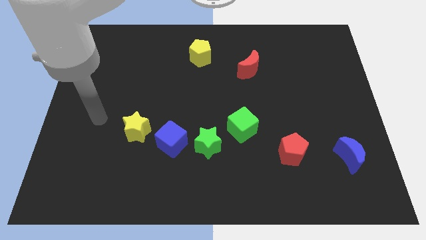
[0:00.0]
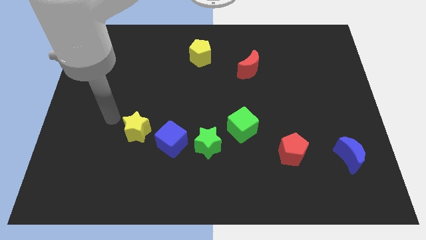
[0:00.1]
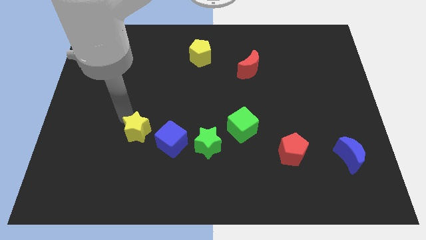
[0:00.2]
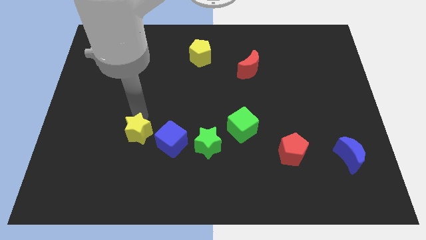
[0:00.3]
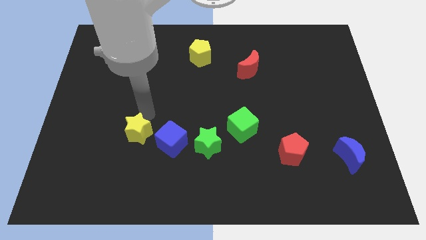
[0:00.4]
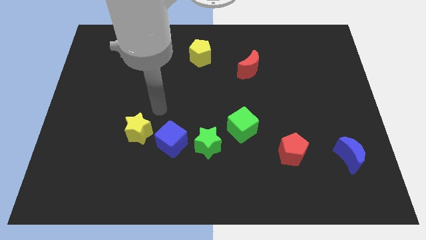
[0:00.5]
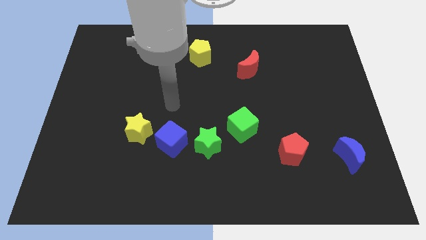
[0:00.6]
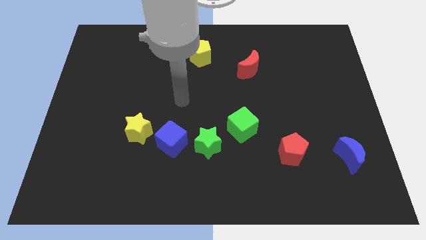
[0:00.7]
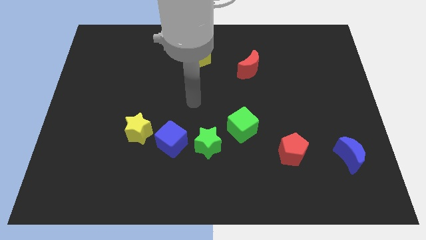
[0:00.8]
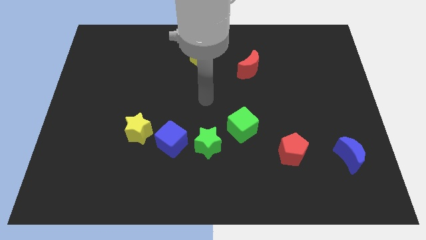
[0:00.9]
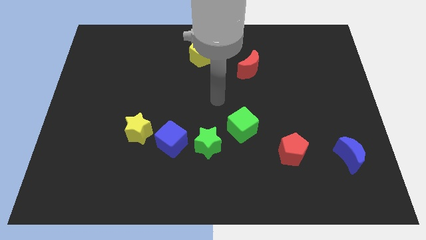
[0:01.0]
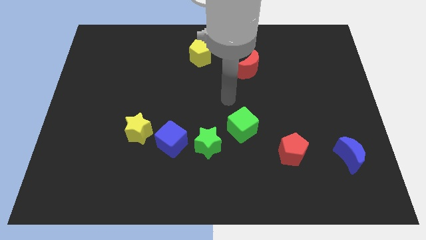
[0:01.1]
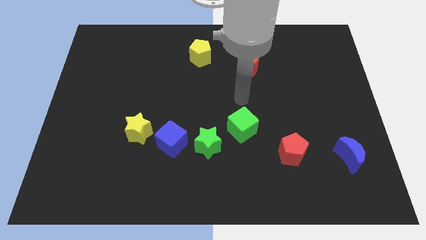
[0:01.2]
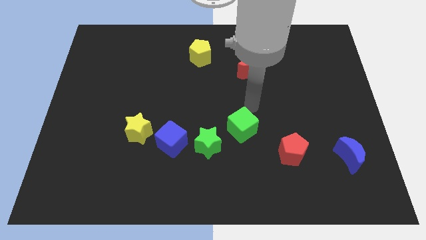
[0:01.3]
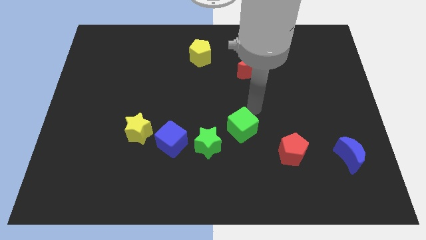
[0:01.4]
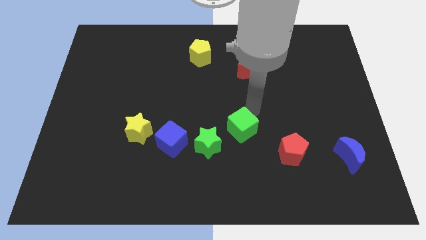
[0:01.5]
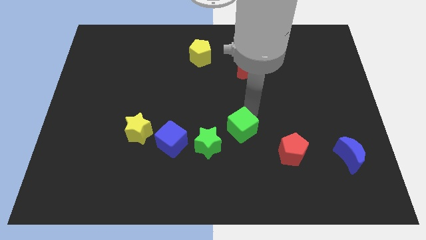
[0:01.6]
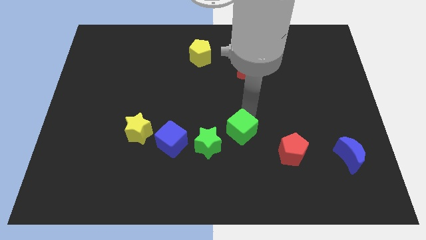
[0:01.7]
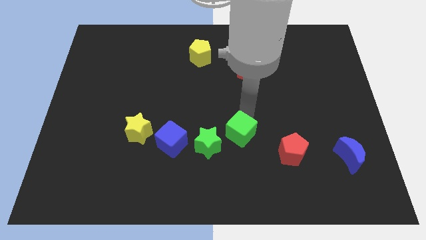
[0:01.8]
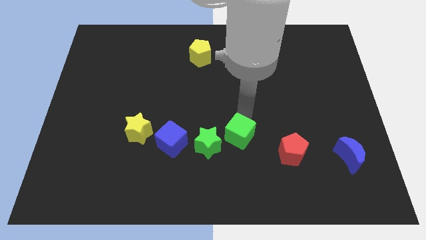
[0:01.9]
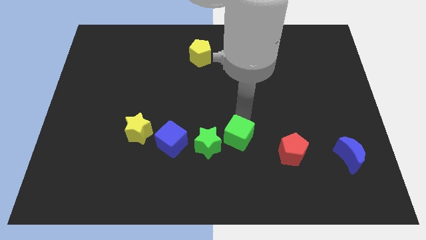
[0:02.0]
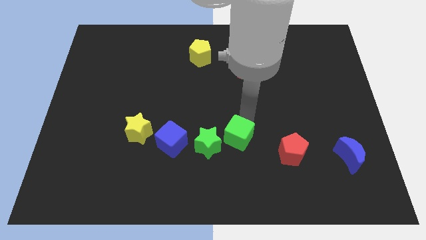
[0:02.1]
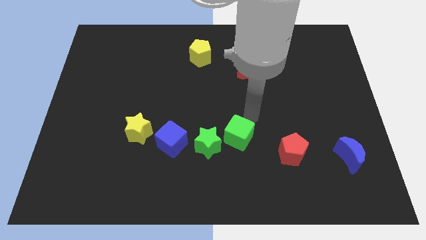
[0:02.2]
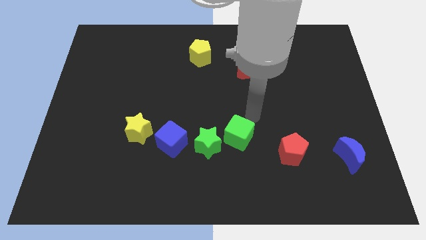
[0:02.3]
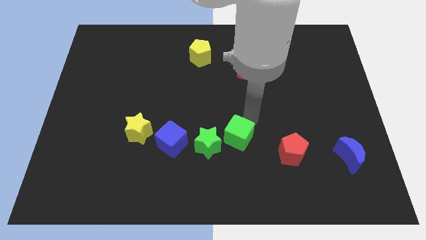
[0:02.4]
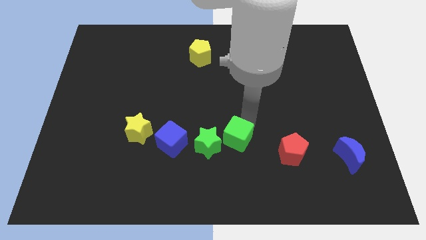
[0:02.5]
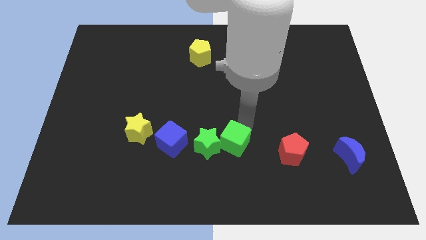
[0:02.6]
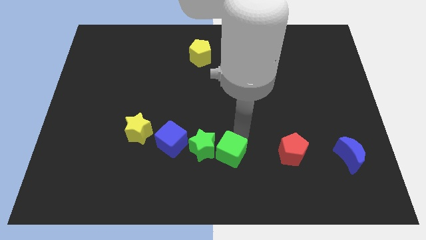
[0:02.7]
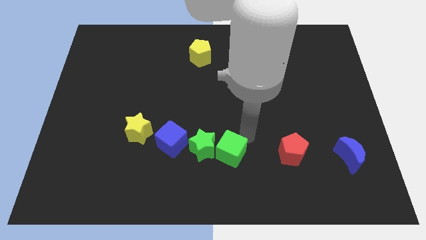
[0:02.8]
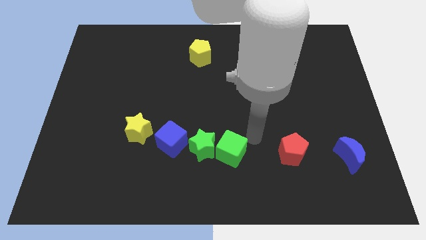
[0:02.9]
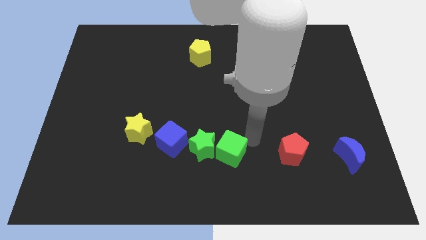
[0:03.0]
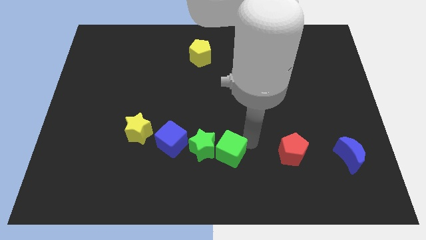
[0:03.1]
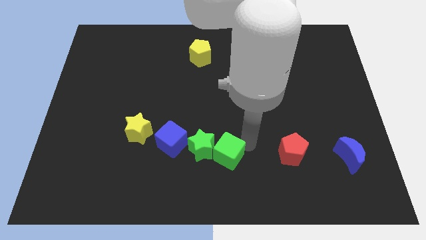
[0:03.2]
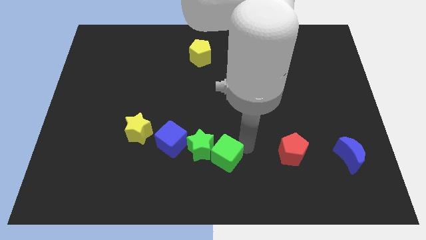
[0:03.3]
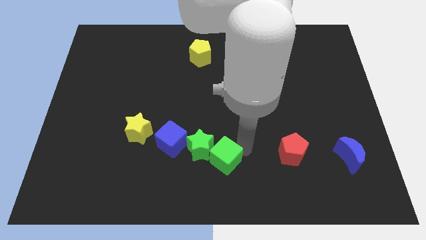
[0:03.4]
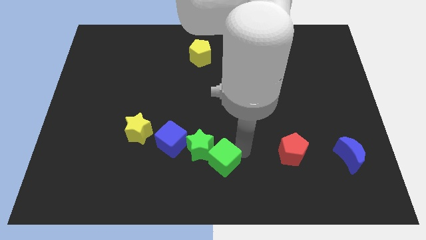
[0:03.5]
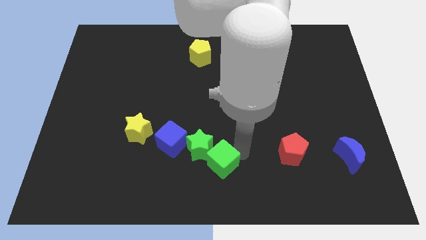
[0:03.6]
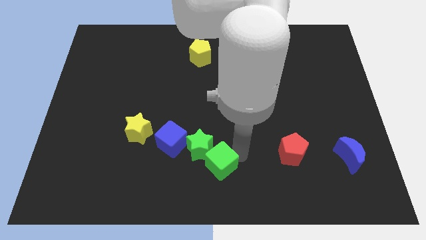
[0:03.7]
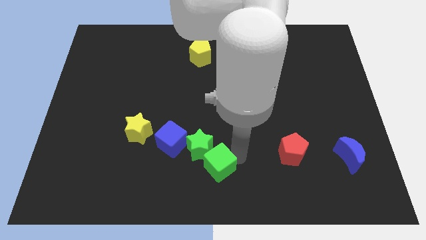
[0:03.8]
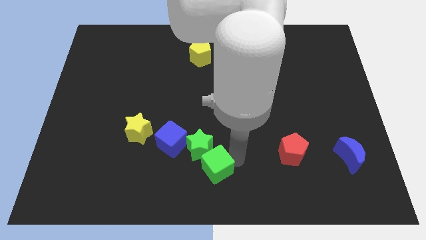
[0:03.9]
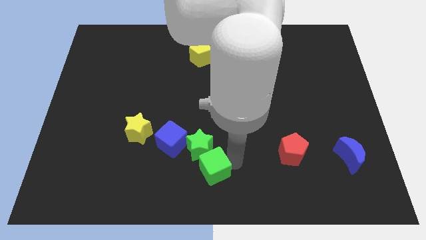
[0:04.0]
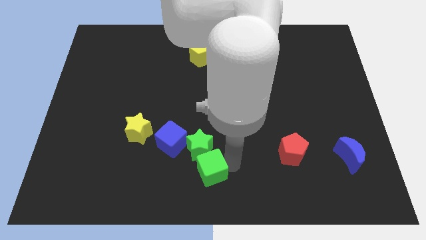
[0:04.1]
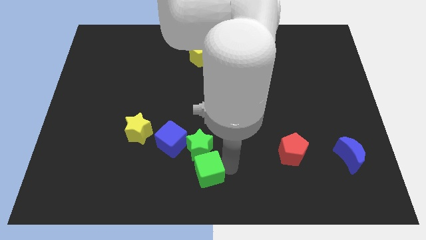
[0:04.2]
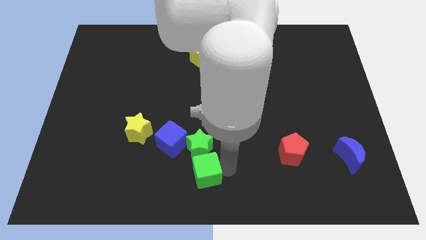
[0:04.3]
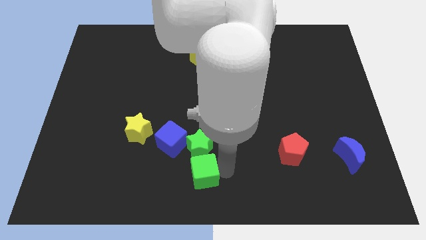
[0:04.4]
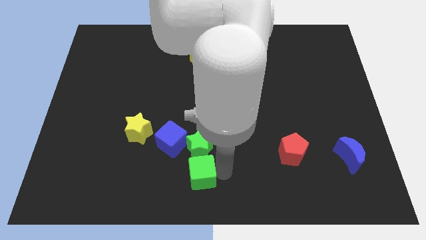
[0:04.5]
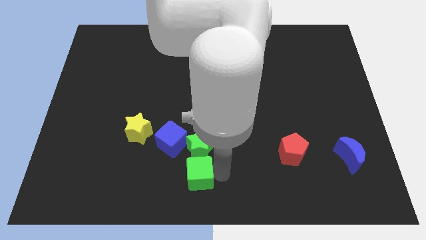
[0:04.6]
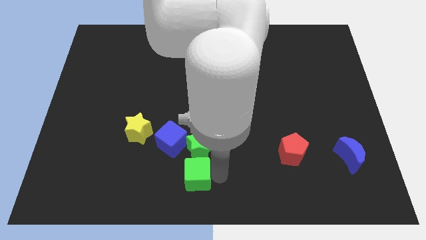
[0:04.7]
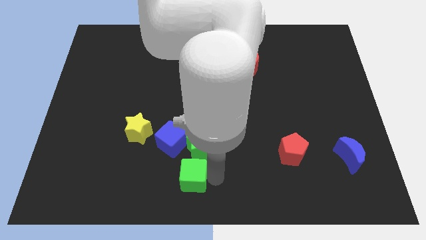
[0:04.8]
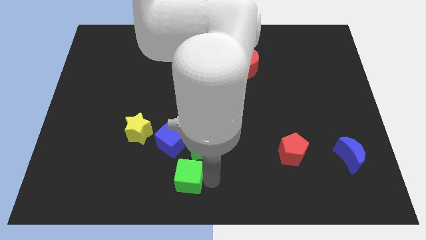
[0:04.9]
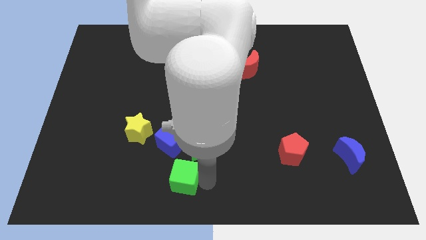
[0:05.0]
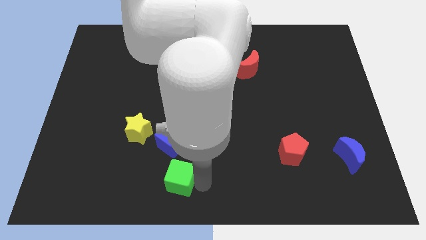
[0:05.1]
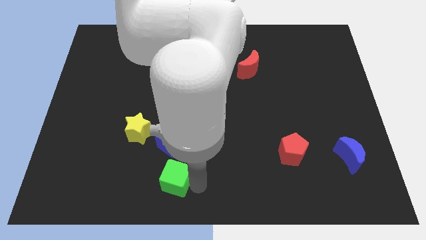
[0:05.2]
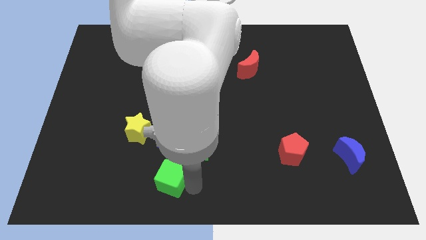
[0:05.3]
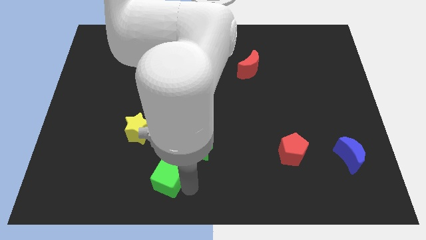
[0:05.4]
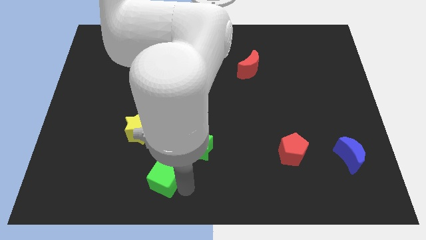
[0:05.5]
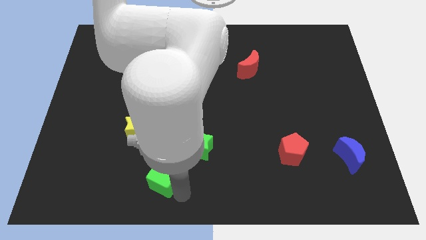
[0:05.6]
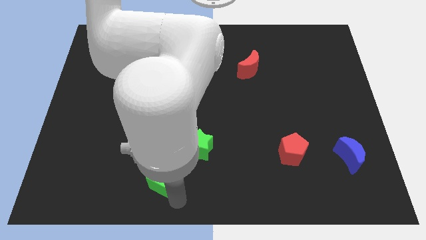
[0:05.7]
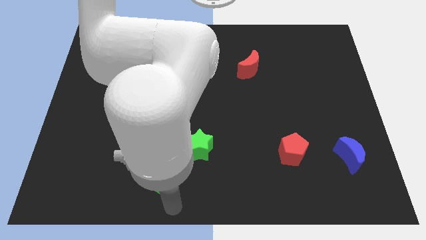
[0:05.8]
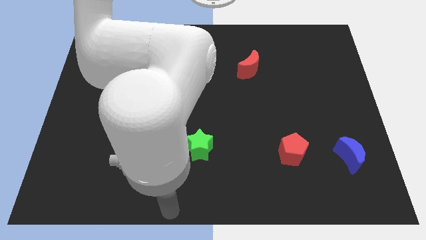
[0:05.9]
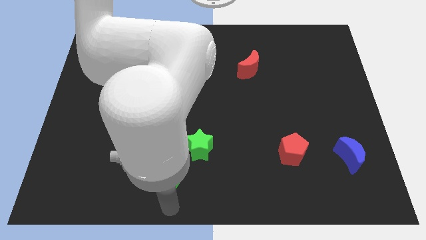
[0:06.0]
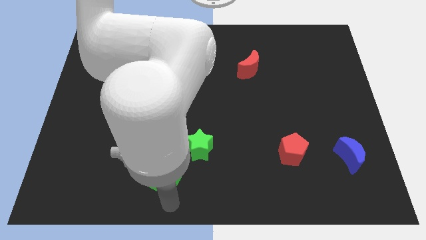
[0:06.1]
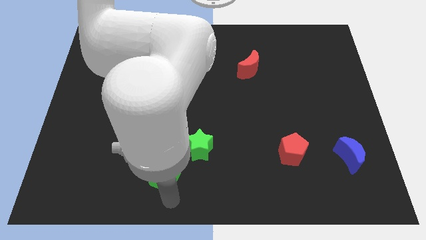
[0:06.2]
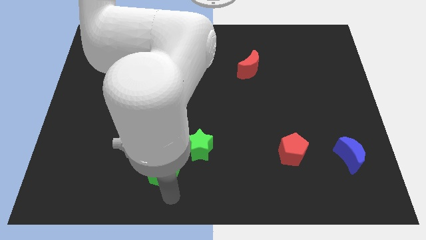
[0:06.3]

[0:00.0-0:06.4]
move the green cube diagonally down and to the right of the yellow star

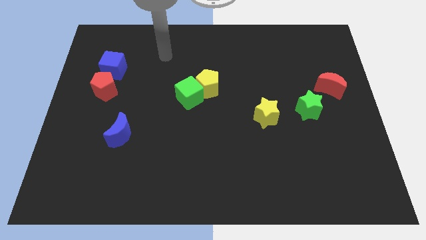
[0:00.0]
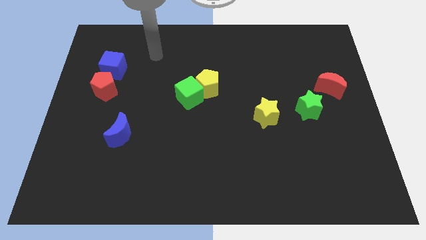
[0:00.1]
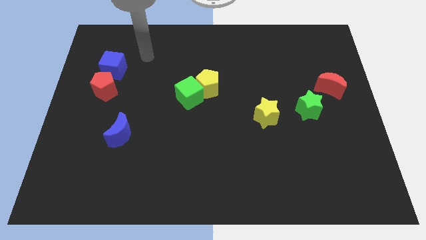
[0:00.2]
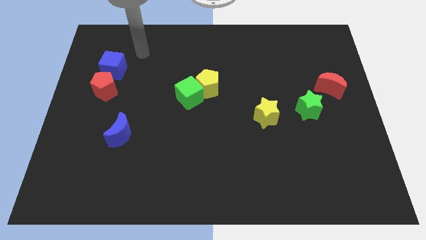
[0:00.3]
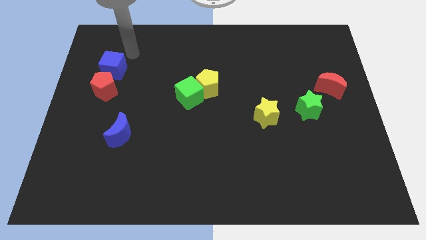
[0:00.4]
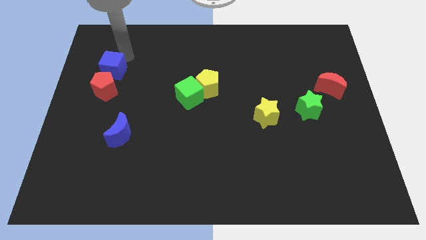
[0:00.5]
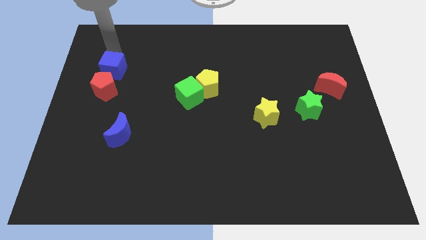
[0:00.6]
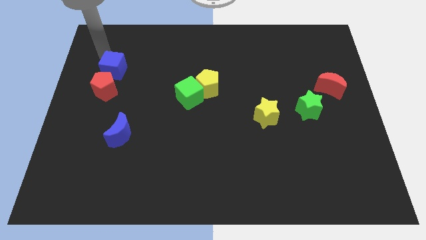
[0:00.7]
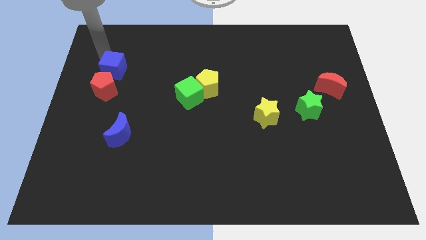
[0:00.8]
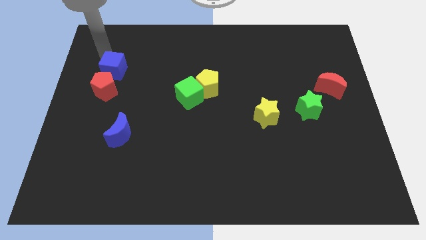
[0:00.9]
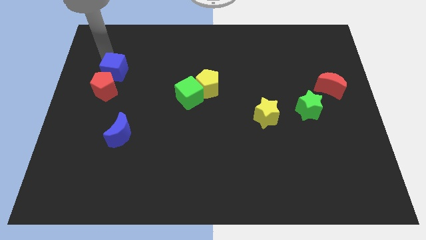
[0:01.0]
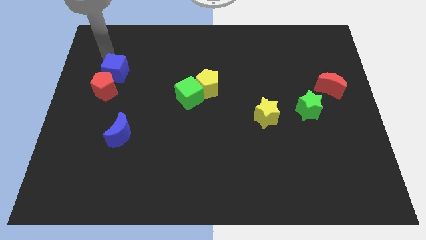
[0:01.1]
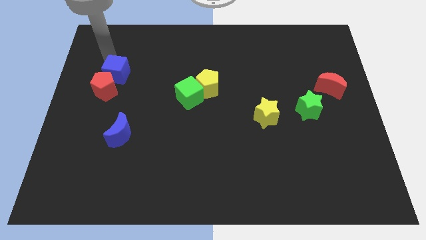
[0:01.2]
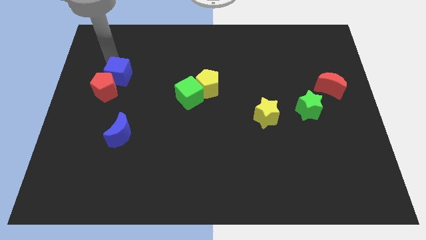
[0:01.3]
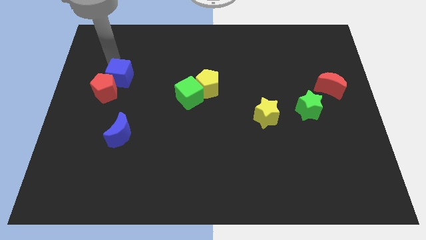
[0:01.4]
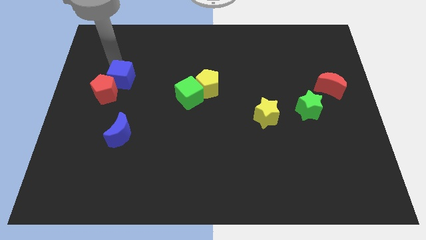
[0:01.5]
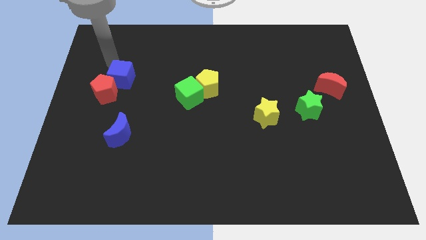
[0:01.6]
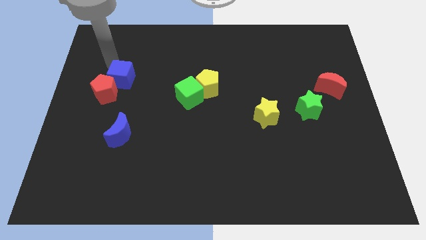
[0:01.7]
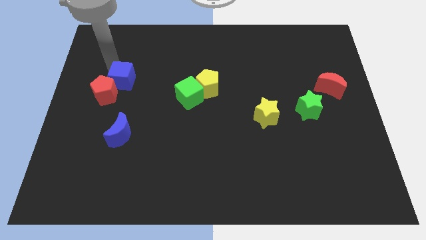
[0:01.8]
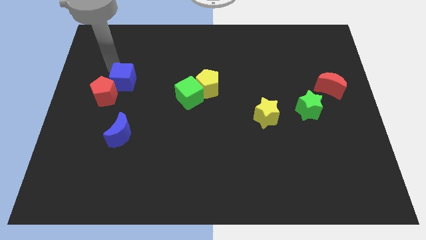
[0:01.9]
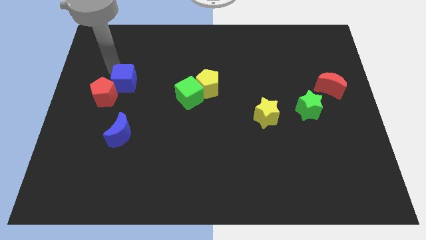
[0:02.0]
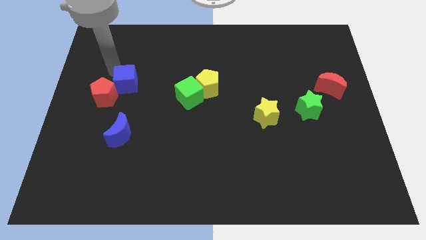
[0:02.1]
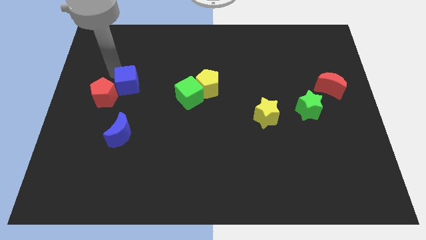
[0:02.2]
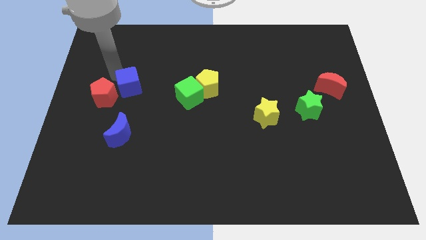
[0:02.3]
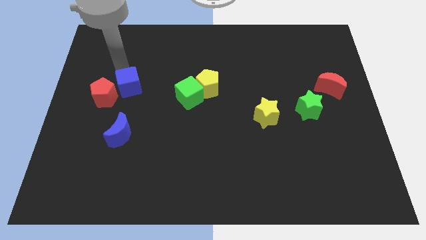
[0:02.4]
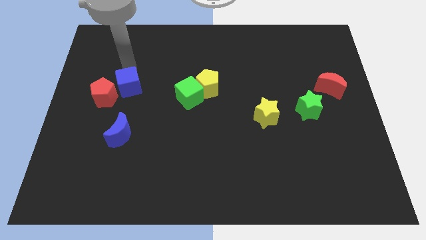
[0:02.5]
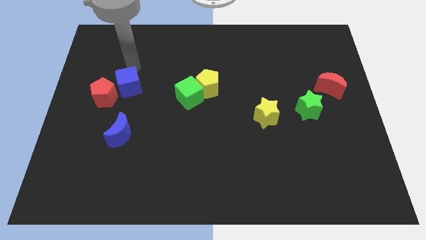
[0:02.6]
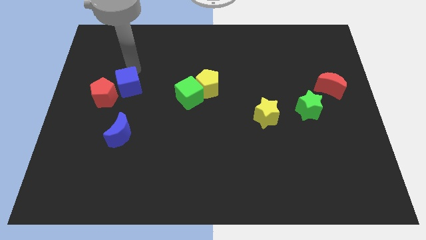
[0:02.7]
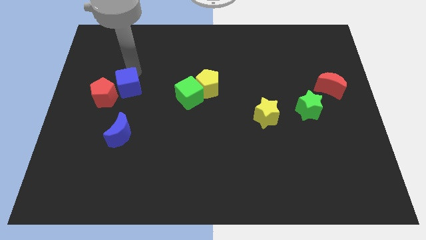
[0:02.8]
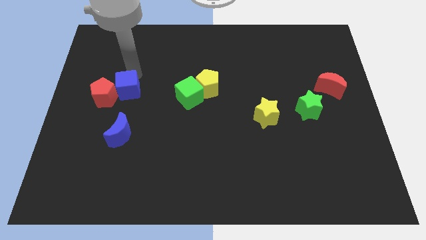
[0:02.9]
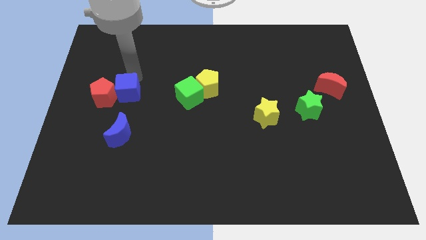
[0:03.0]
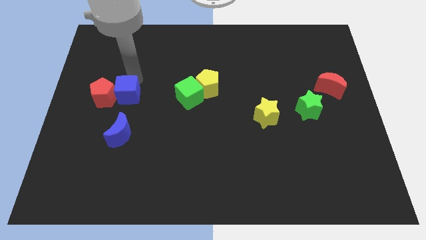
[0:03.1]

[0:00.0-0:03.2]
push the blue cube to the bottom right of the red pentagon
